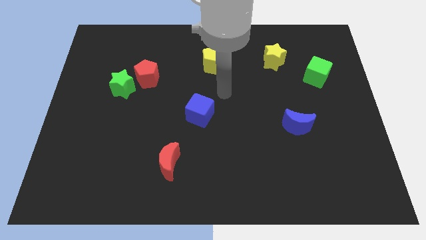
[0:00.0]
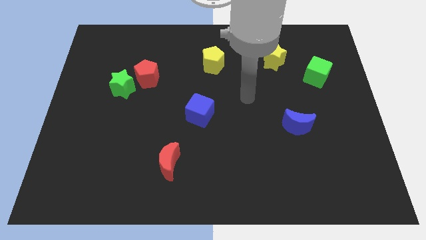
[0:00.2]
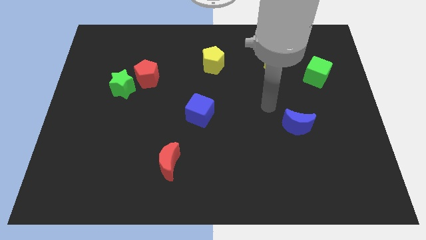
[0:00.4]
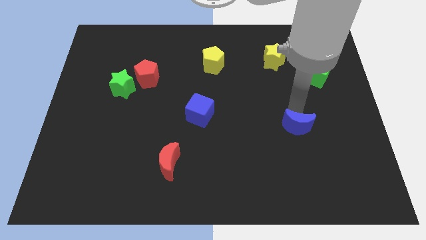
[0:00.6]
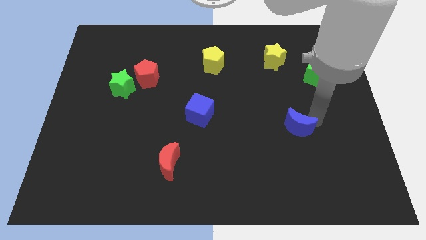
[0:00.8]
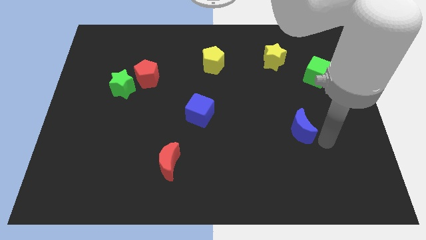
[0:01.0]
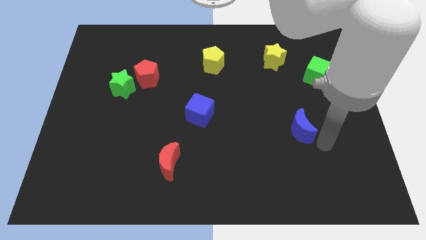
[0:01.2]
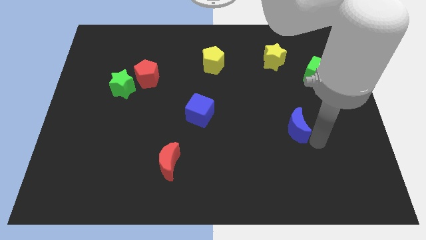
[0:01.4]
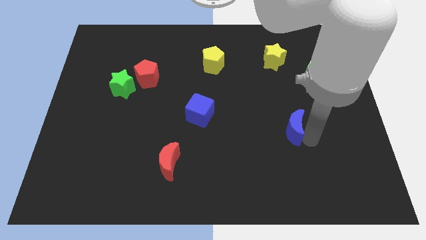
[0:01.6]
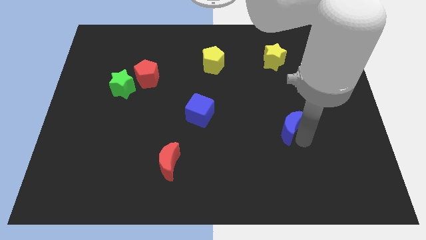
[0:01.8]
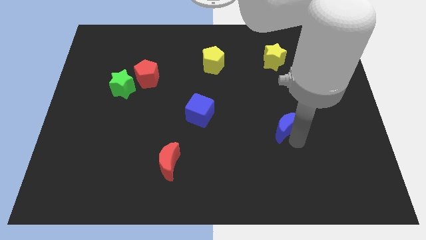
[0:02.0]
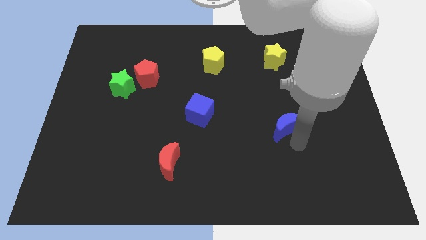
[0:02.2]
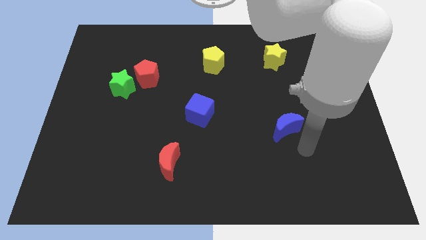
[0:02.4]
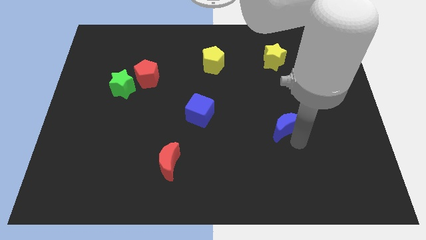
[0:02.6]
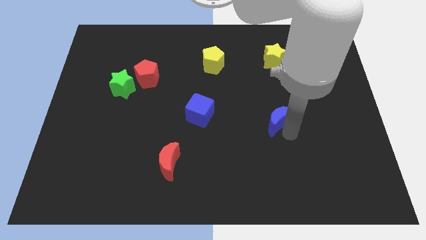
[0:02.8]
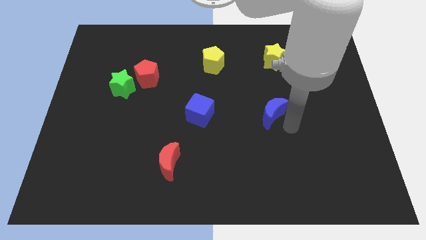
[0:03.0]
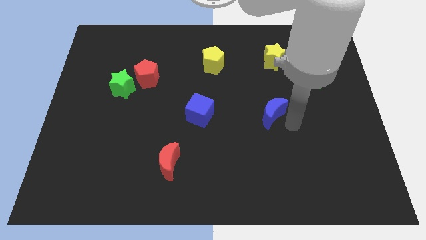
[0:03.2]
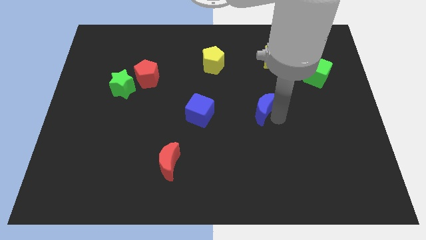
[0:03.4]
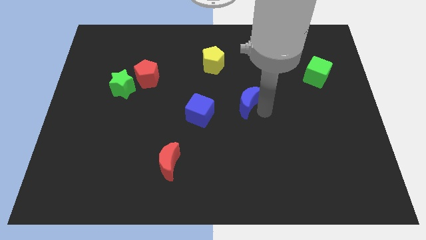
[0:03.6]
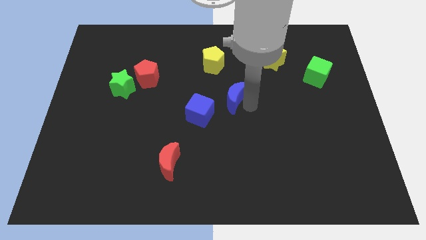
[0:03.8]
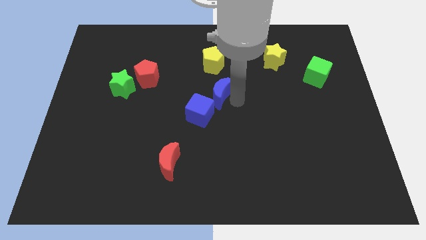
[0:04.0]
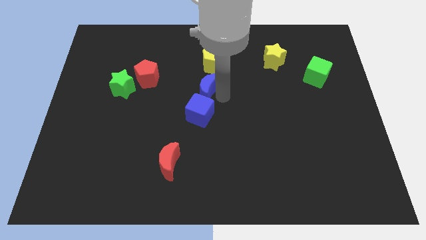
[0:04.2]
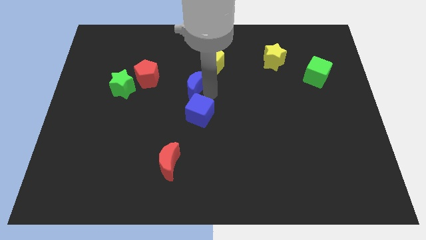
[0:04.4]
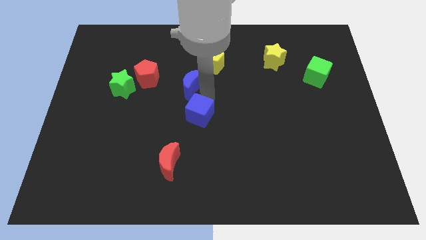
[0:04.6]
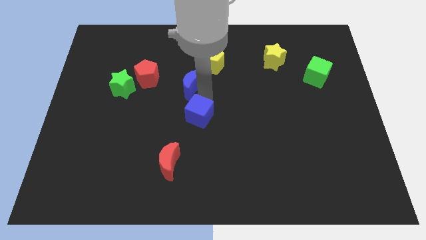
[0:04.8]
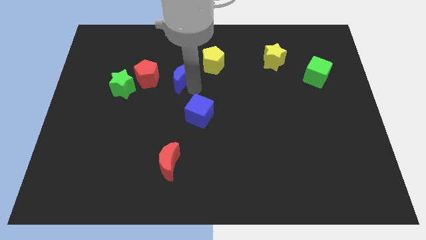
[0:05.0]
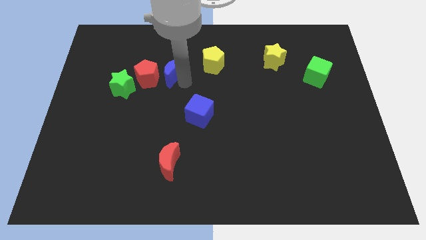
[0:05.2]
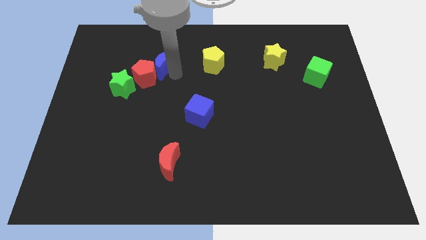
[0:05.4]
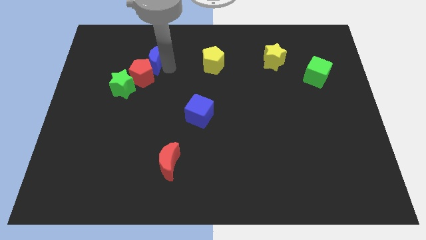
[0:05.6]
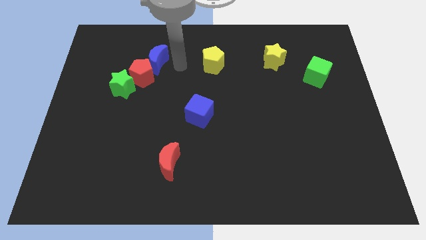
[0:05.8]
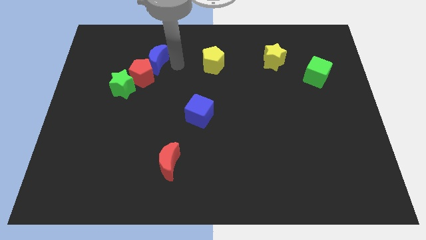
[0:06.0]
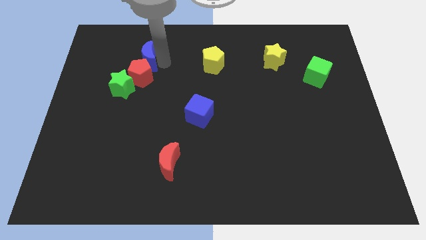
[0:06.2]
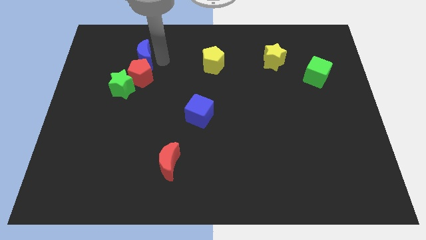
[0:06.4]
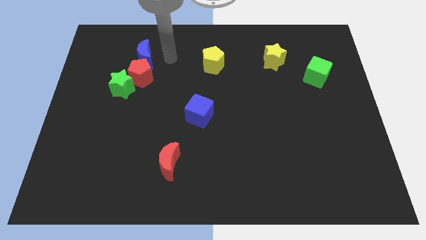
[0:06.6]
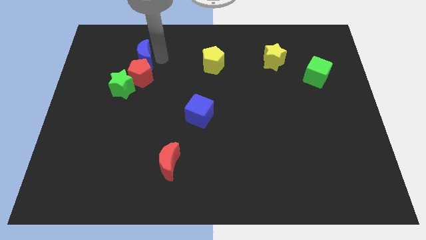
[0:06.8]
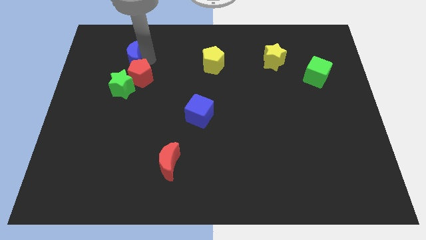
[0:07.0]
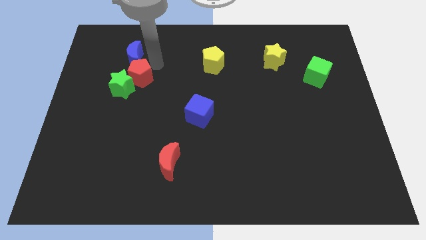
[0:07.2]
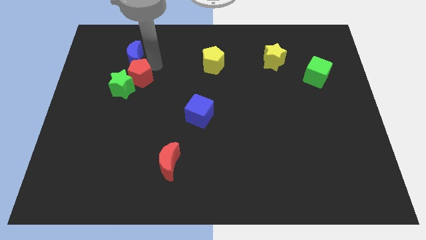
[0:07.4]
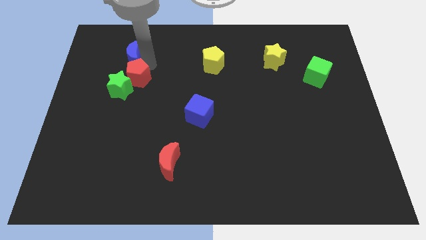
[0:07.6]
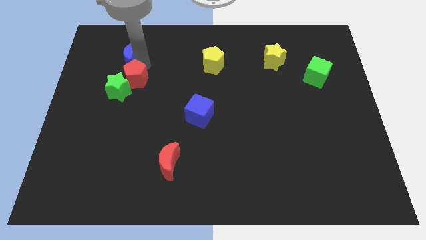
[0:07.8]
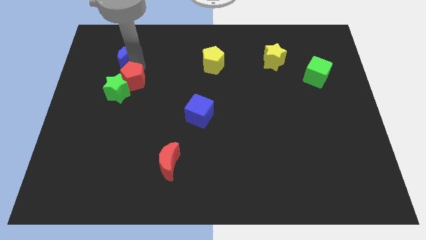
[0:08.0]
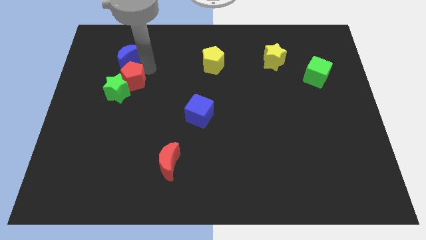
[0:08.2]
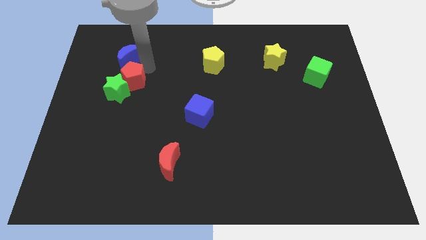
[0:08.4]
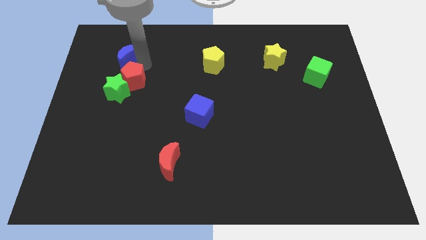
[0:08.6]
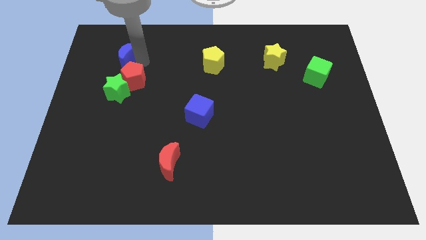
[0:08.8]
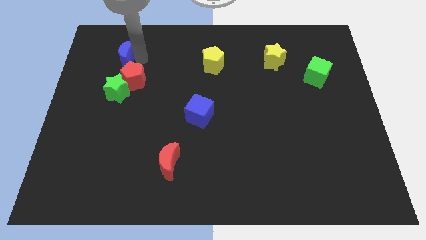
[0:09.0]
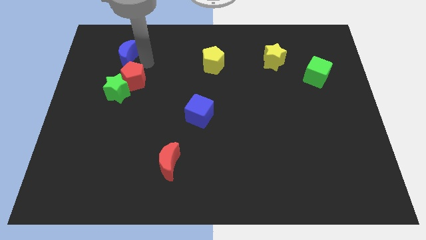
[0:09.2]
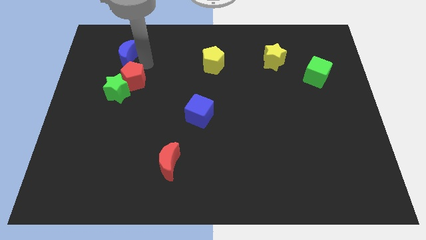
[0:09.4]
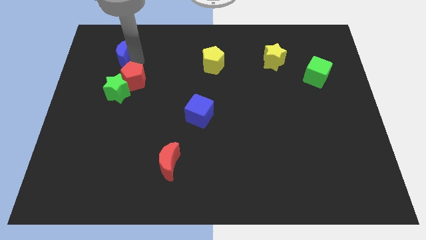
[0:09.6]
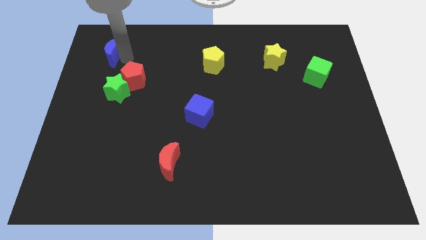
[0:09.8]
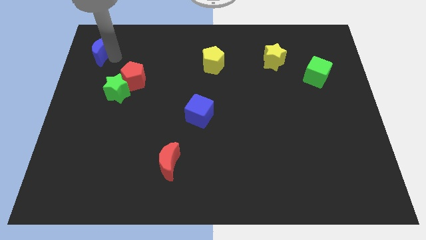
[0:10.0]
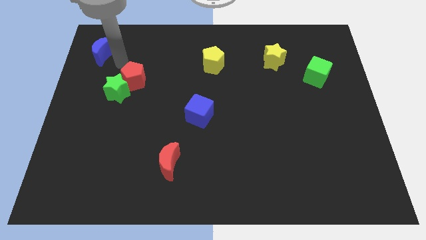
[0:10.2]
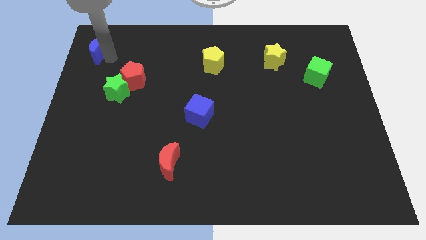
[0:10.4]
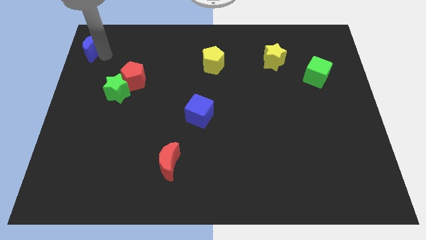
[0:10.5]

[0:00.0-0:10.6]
put the blue moon to the upper left corner

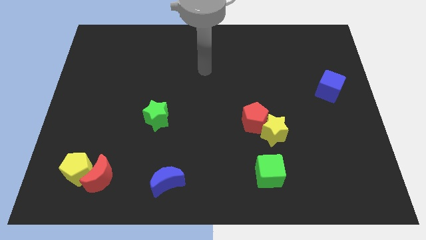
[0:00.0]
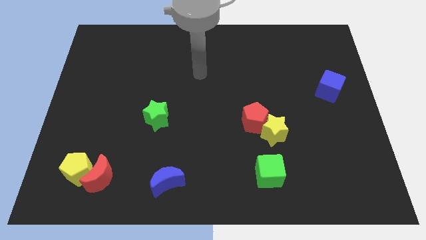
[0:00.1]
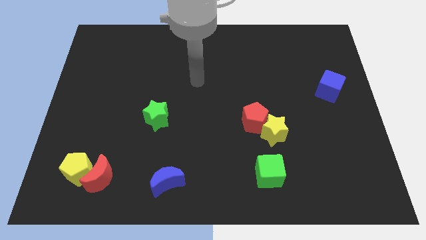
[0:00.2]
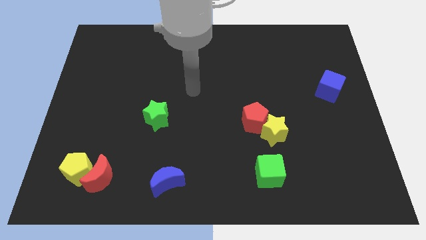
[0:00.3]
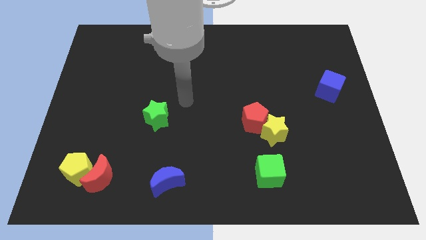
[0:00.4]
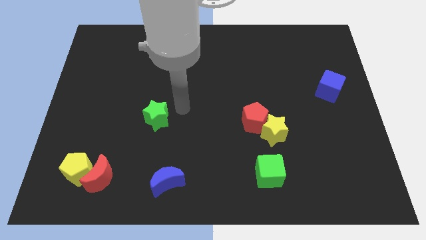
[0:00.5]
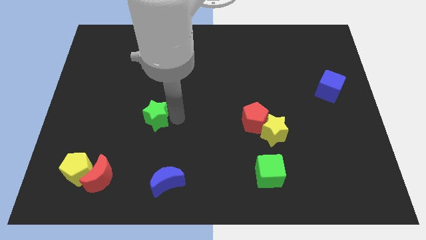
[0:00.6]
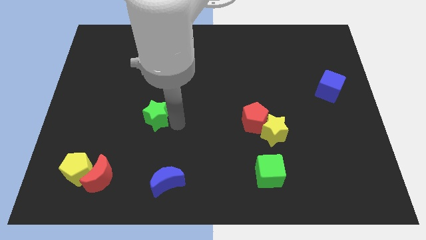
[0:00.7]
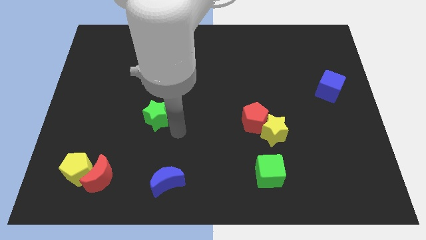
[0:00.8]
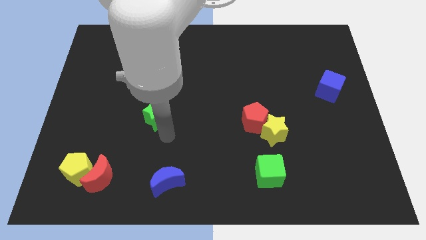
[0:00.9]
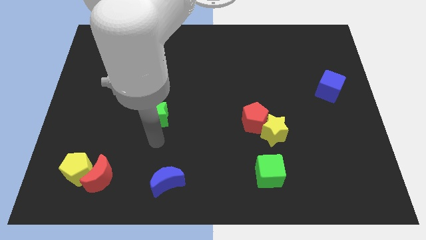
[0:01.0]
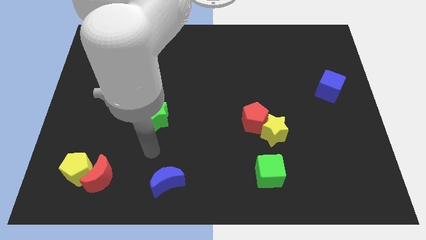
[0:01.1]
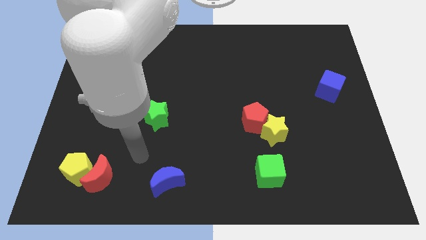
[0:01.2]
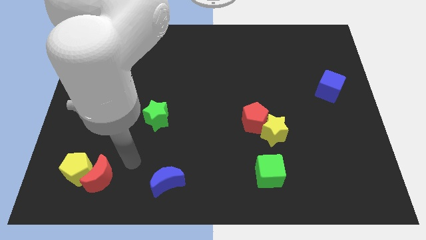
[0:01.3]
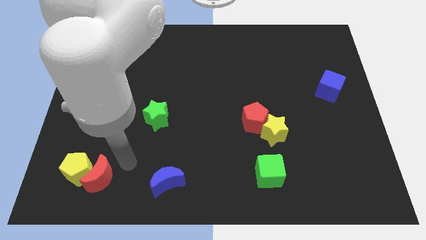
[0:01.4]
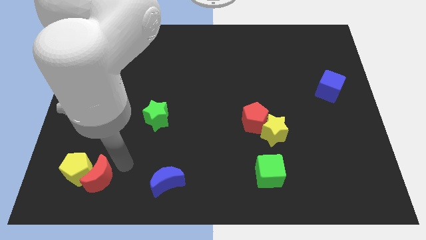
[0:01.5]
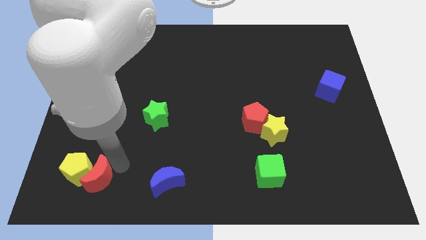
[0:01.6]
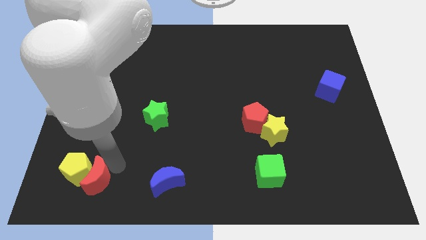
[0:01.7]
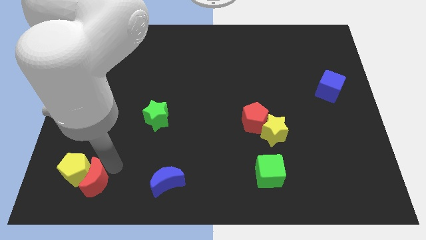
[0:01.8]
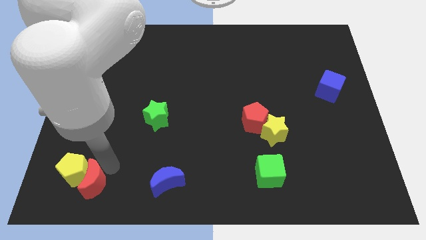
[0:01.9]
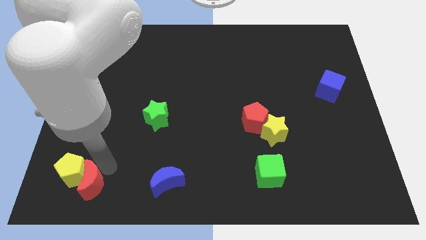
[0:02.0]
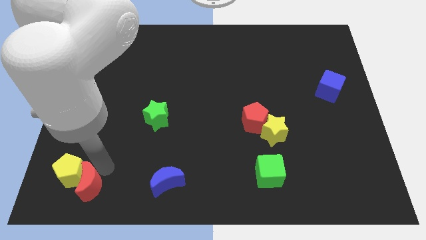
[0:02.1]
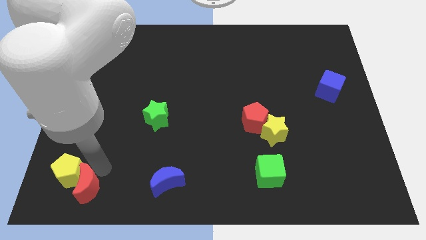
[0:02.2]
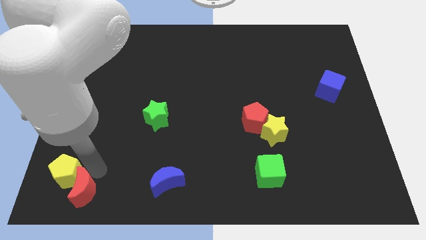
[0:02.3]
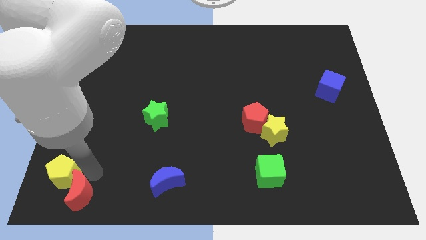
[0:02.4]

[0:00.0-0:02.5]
push the red moon to the bottom left of the board
